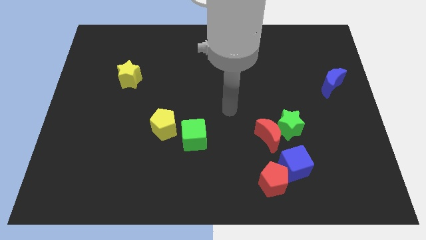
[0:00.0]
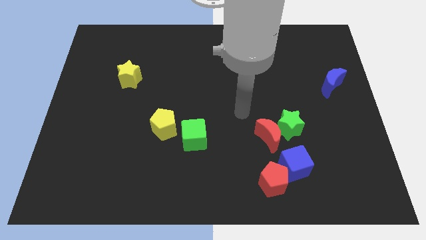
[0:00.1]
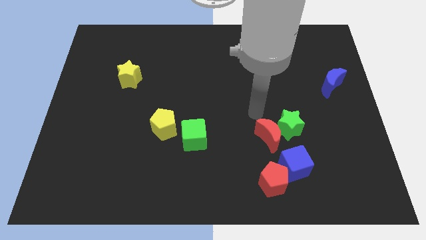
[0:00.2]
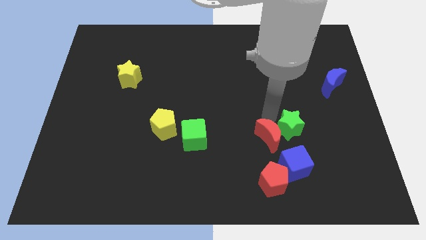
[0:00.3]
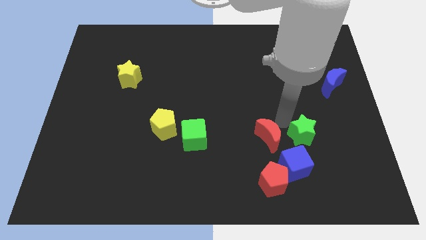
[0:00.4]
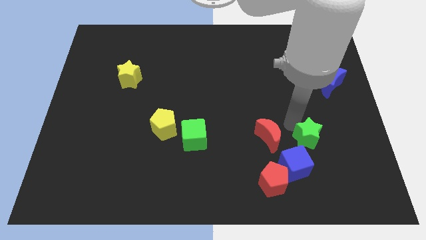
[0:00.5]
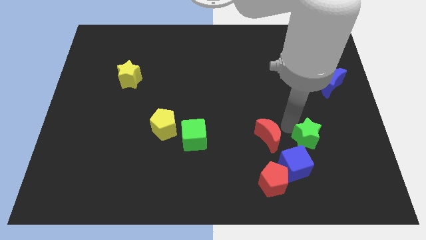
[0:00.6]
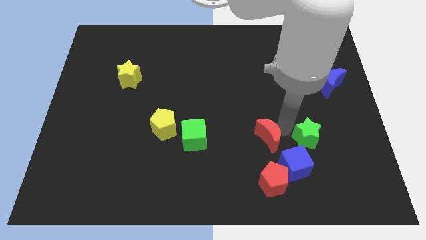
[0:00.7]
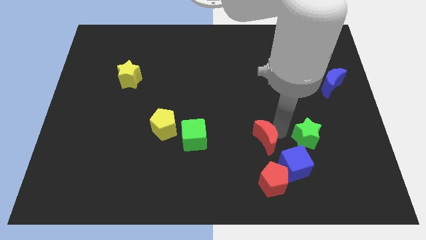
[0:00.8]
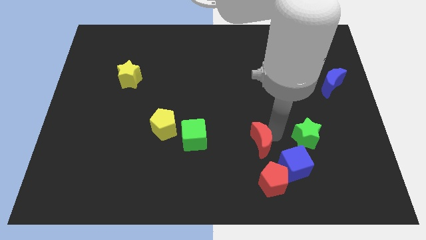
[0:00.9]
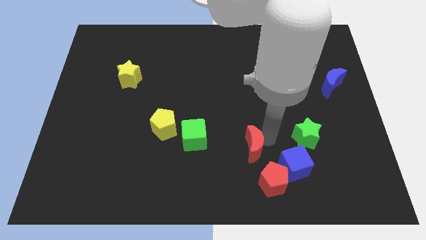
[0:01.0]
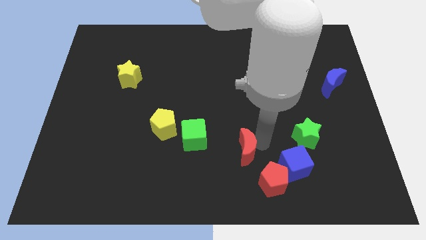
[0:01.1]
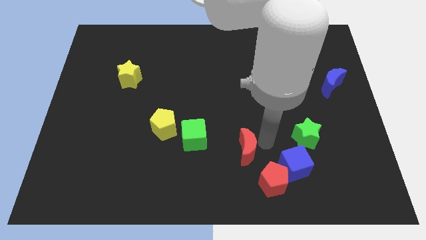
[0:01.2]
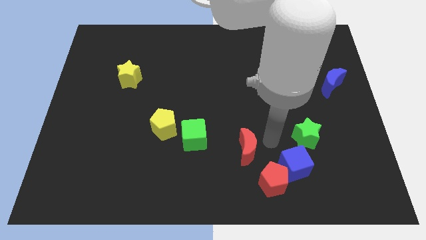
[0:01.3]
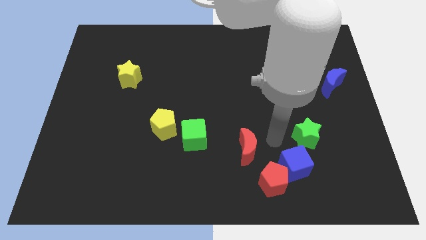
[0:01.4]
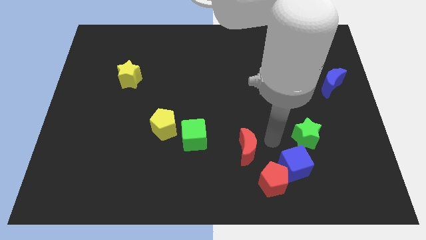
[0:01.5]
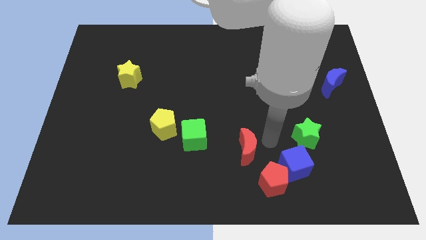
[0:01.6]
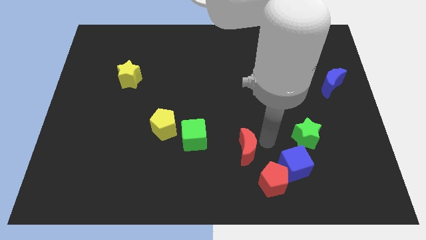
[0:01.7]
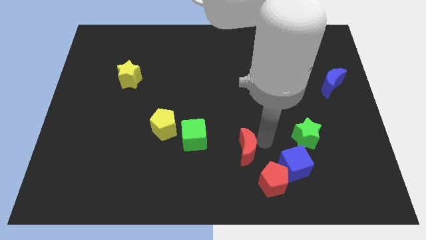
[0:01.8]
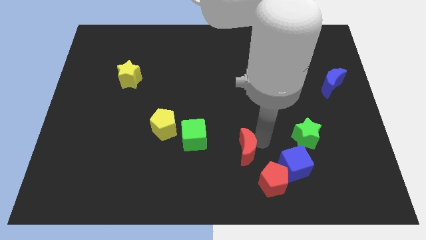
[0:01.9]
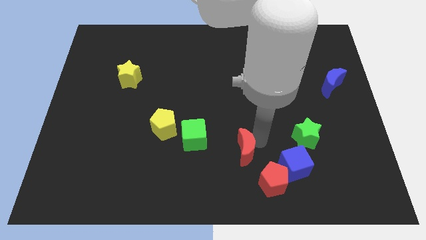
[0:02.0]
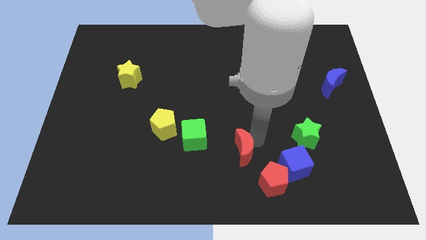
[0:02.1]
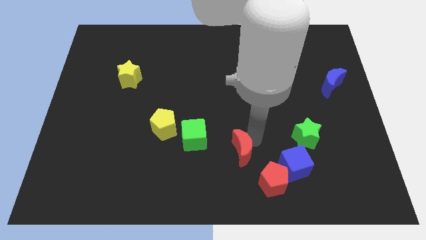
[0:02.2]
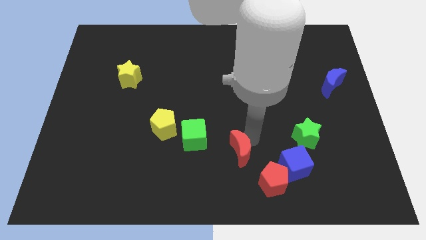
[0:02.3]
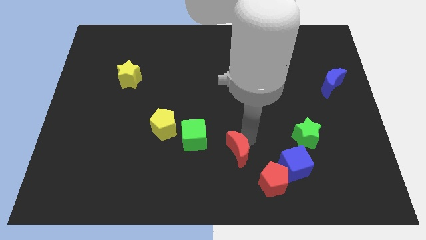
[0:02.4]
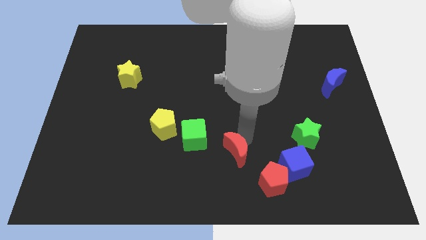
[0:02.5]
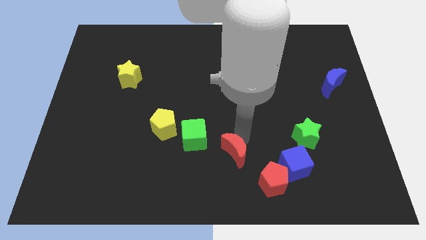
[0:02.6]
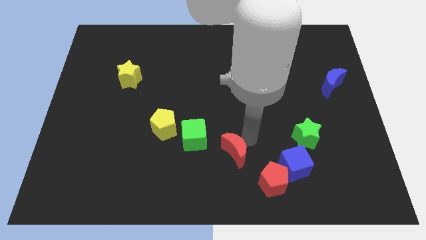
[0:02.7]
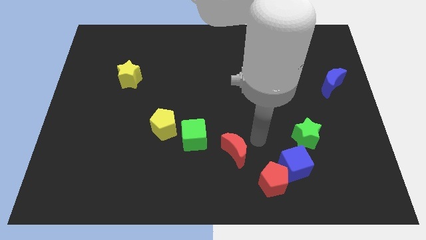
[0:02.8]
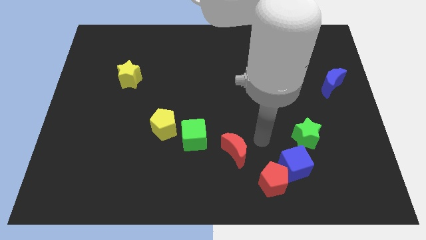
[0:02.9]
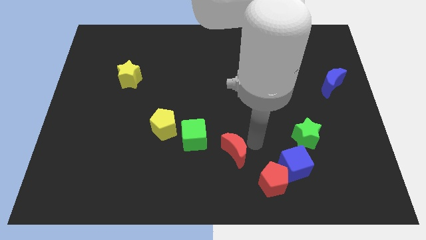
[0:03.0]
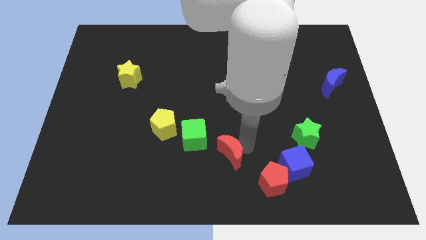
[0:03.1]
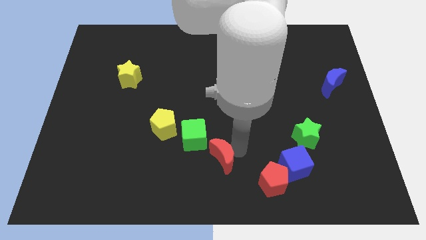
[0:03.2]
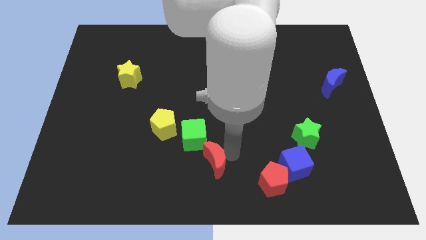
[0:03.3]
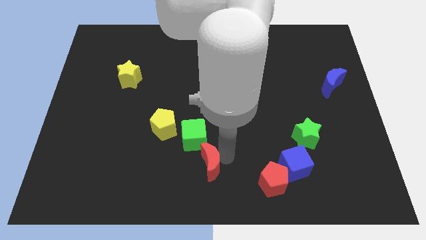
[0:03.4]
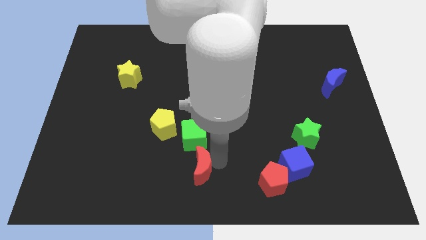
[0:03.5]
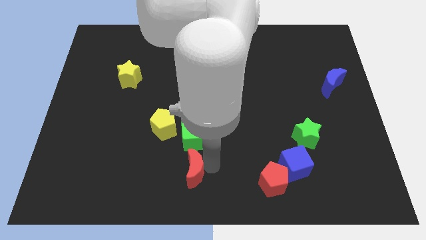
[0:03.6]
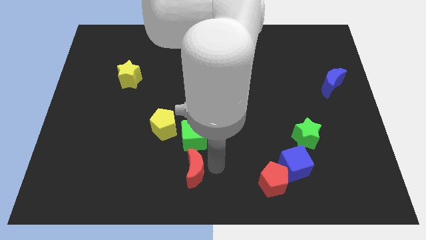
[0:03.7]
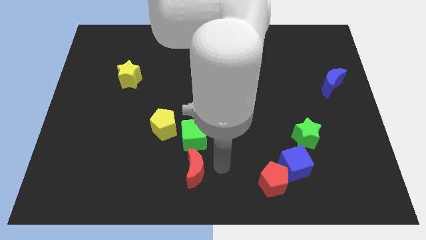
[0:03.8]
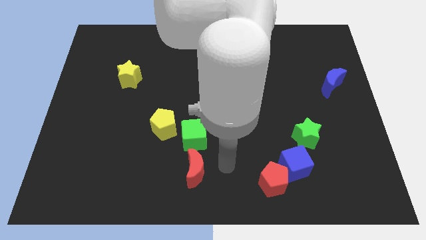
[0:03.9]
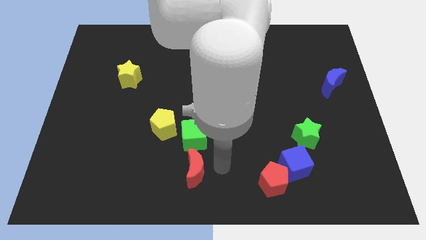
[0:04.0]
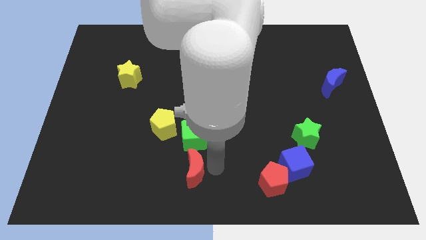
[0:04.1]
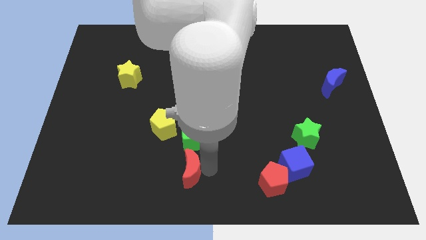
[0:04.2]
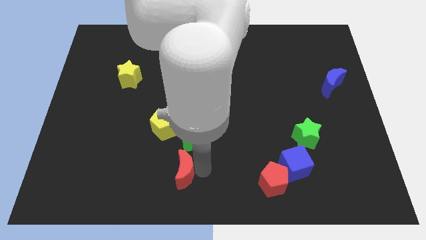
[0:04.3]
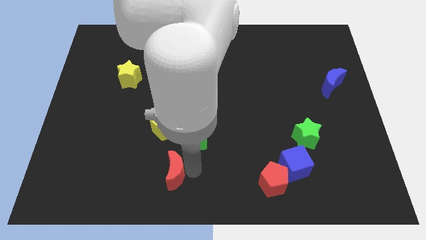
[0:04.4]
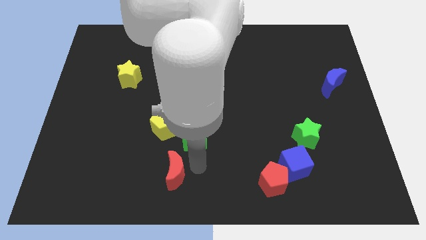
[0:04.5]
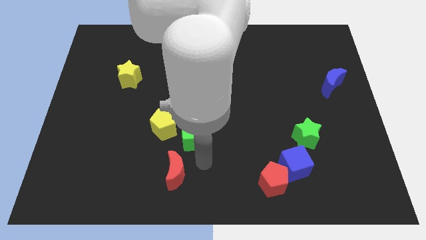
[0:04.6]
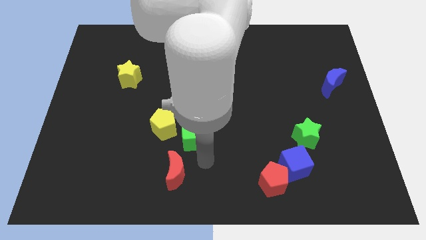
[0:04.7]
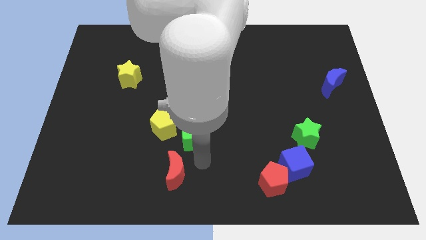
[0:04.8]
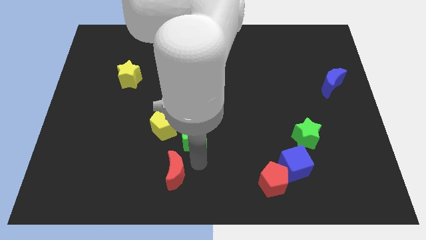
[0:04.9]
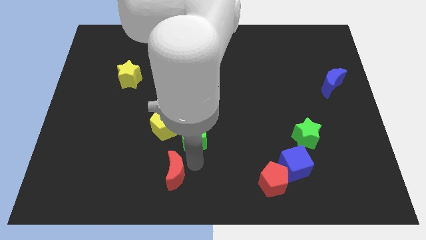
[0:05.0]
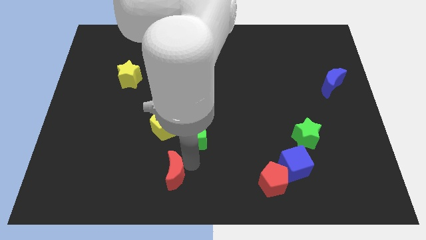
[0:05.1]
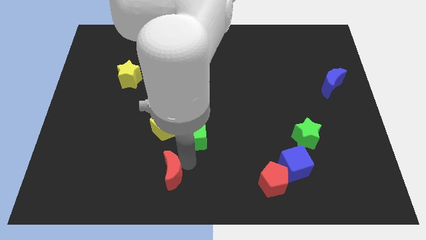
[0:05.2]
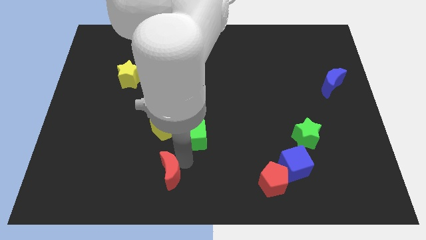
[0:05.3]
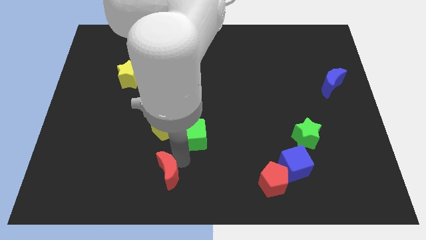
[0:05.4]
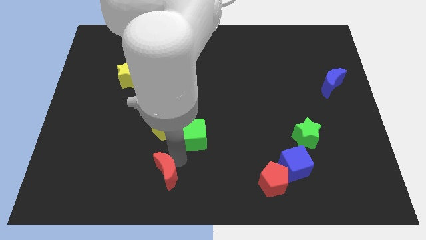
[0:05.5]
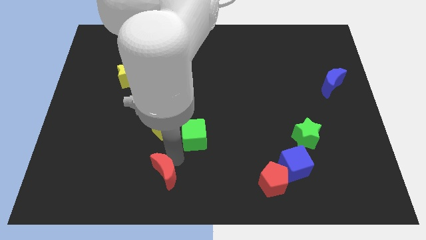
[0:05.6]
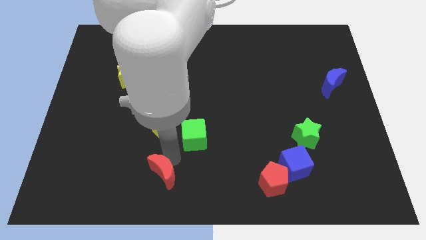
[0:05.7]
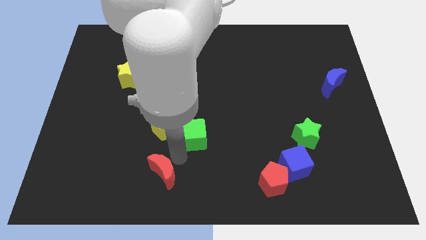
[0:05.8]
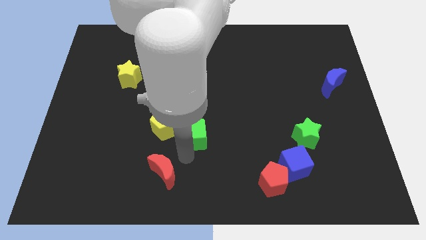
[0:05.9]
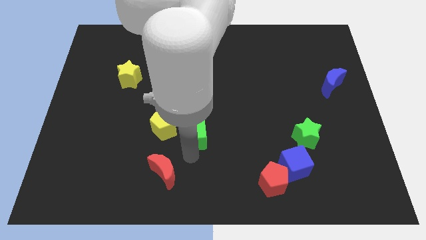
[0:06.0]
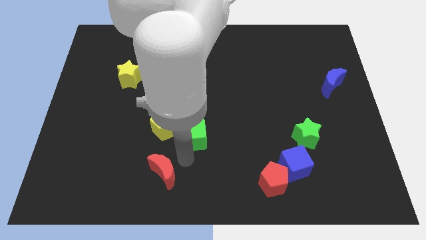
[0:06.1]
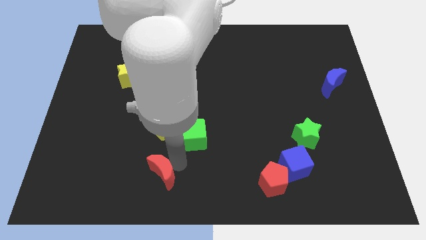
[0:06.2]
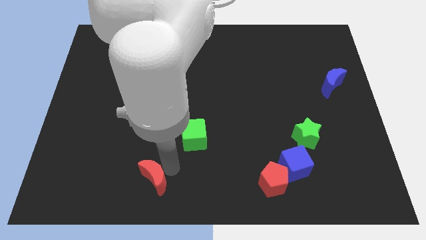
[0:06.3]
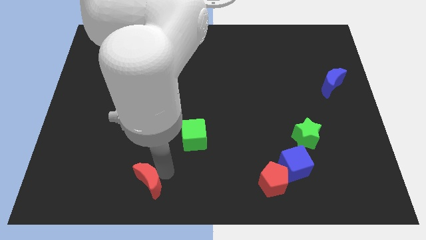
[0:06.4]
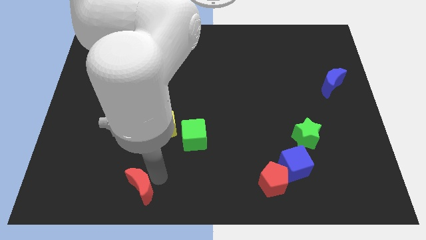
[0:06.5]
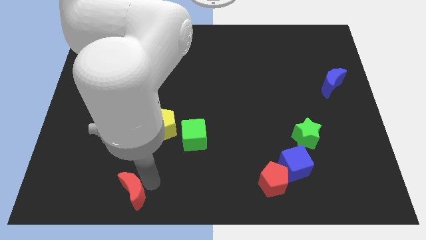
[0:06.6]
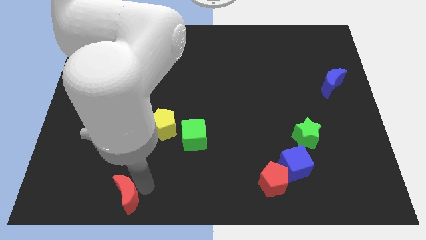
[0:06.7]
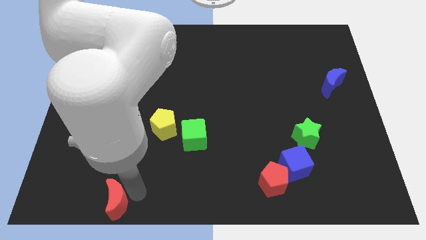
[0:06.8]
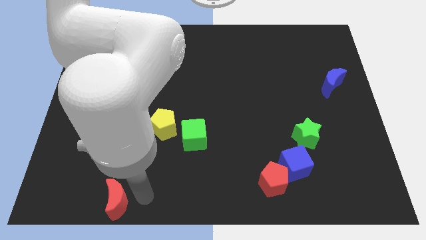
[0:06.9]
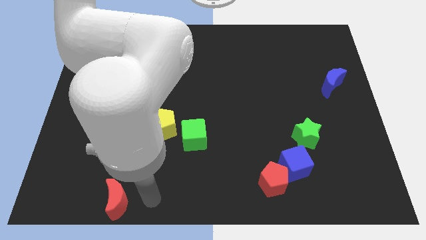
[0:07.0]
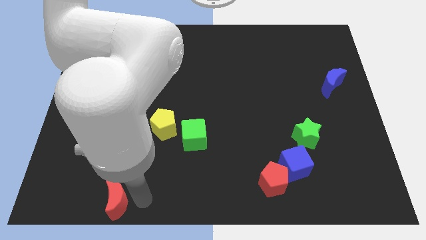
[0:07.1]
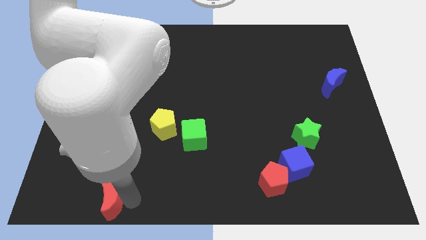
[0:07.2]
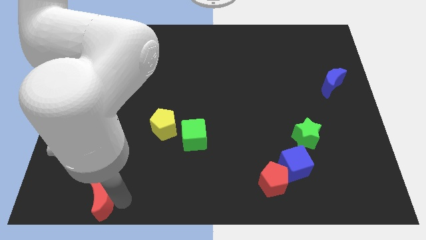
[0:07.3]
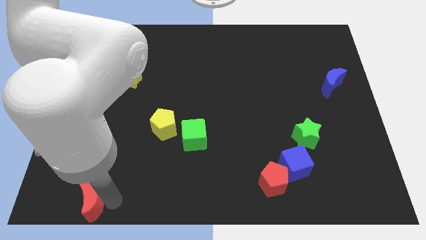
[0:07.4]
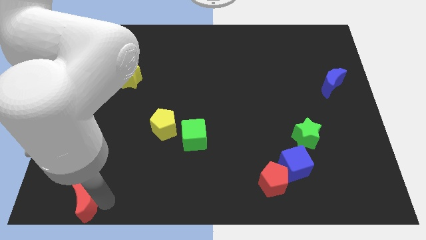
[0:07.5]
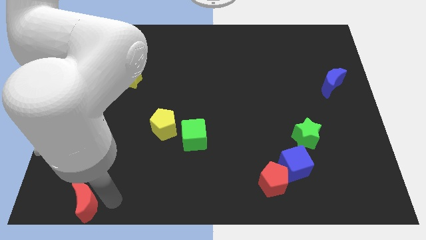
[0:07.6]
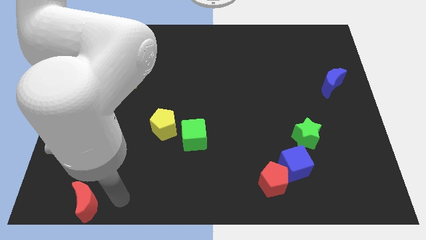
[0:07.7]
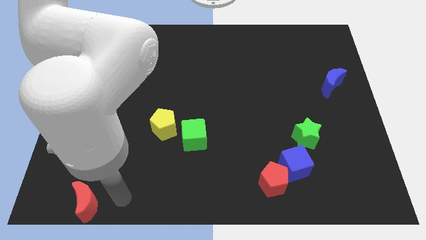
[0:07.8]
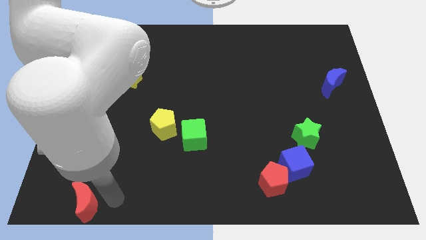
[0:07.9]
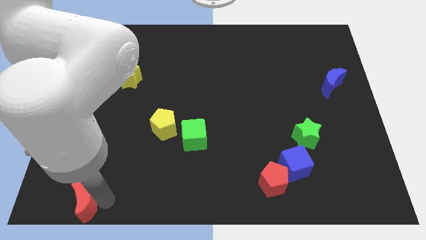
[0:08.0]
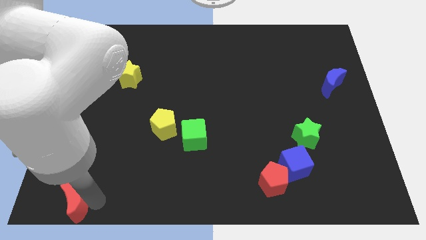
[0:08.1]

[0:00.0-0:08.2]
push the red moon to the lower left corner
